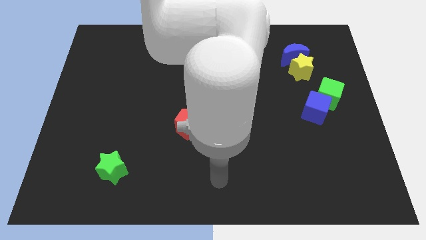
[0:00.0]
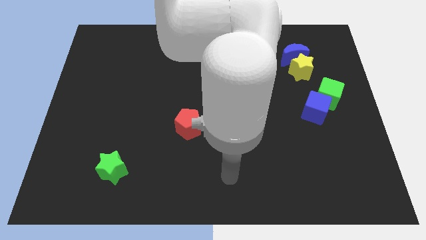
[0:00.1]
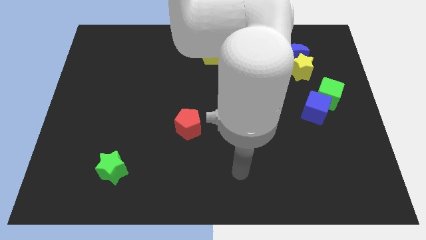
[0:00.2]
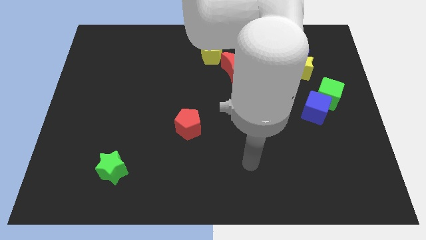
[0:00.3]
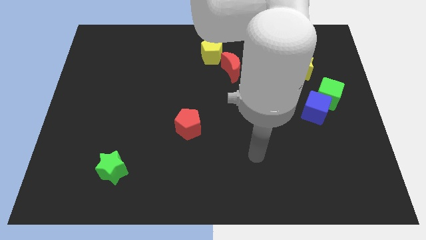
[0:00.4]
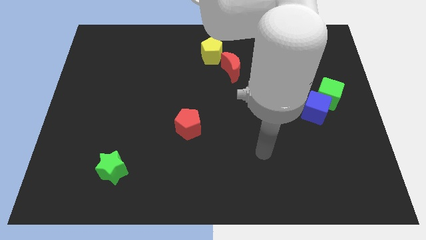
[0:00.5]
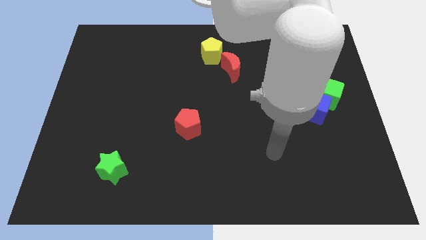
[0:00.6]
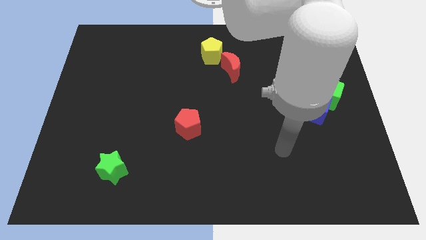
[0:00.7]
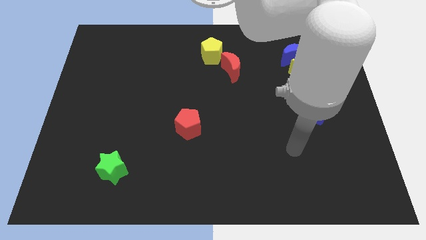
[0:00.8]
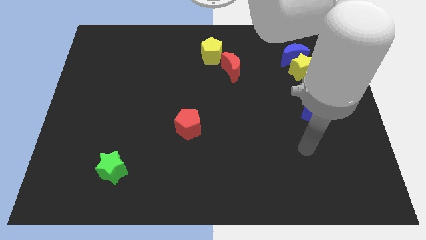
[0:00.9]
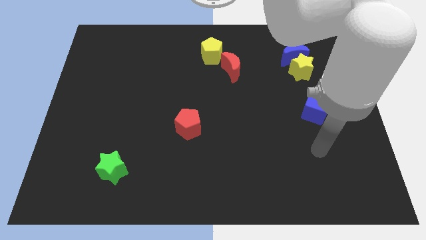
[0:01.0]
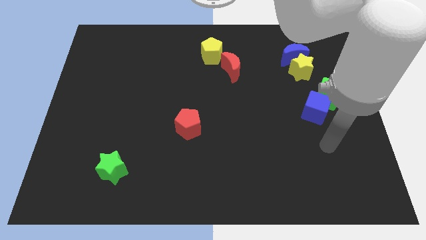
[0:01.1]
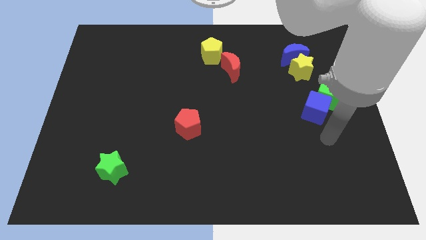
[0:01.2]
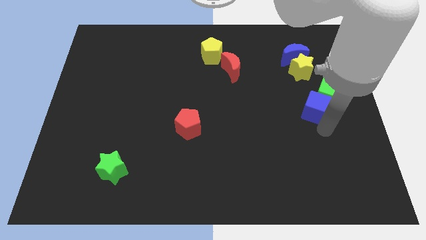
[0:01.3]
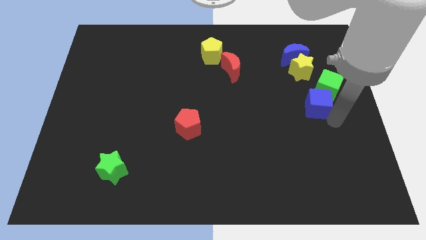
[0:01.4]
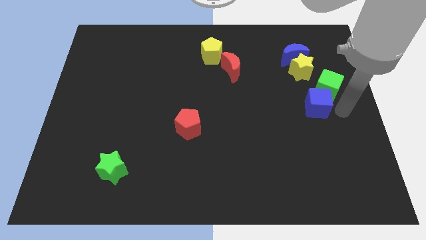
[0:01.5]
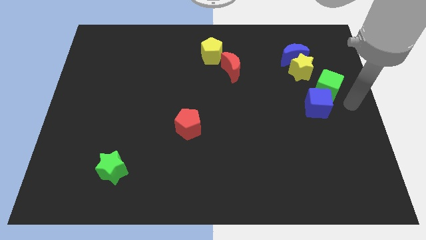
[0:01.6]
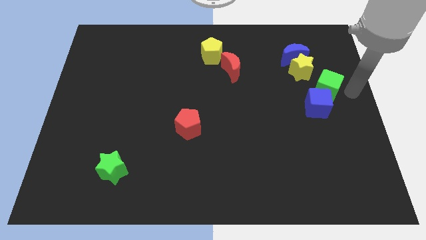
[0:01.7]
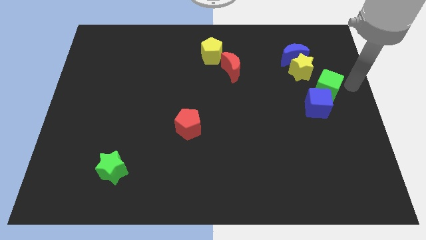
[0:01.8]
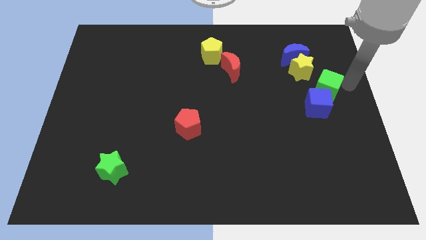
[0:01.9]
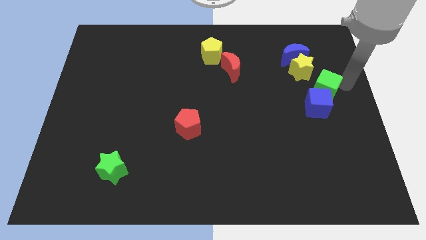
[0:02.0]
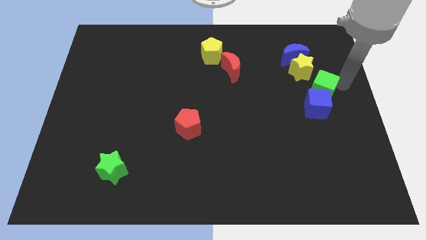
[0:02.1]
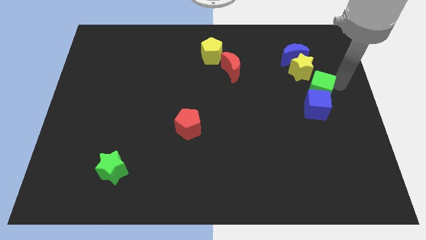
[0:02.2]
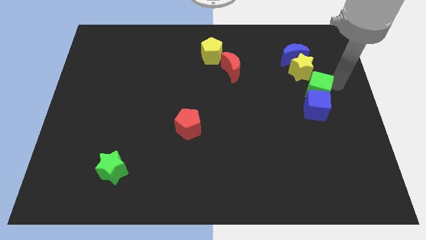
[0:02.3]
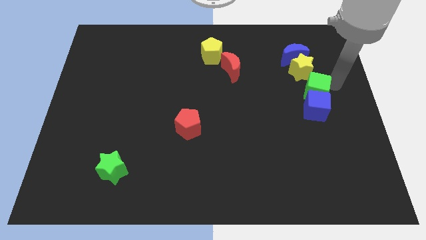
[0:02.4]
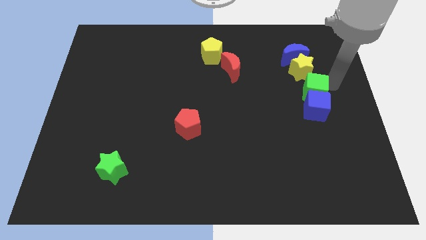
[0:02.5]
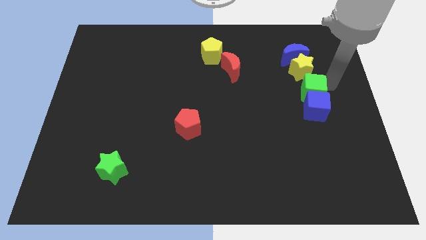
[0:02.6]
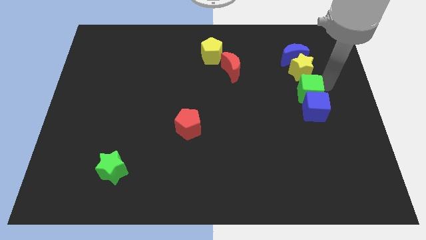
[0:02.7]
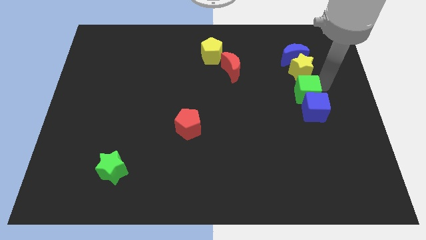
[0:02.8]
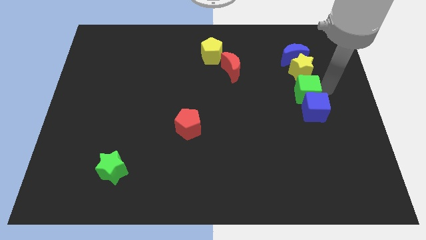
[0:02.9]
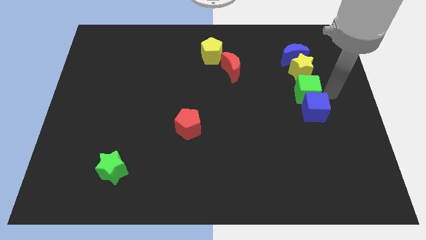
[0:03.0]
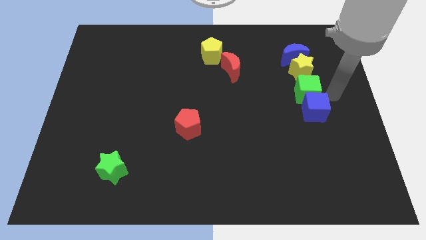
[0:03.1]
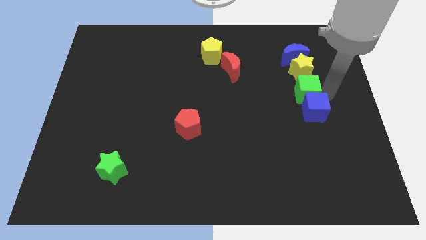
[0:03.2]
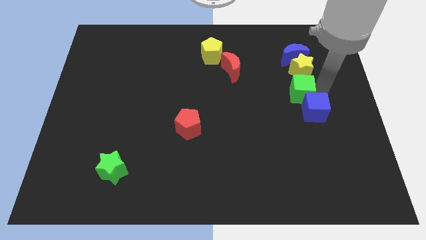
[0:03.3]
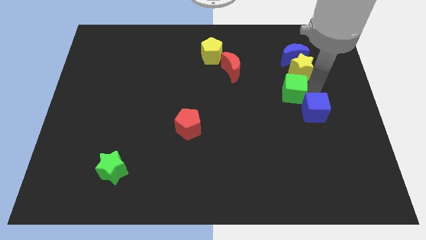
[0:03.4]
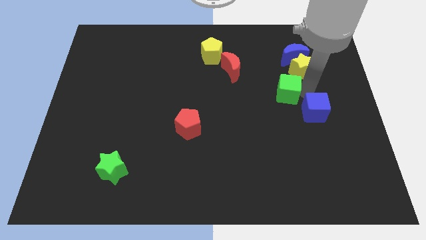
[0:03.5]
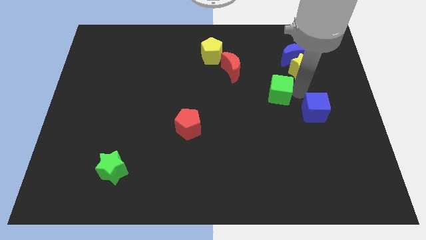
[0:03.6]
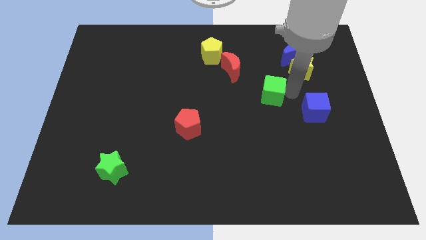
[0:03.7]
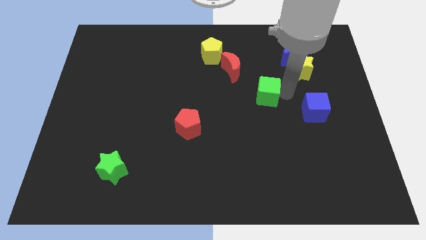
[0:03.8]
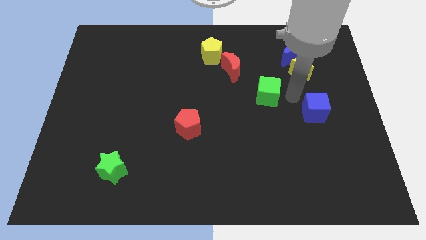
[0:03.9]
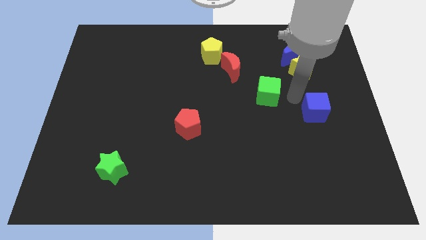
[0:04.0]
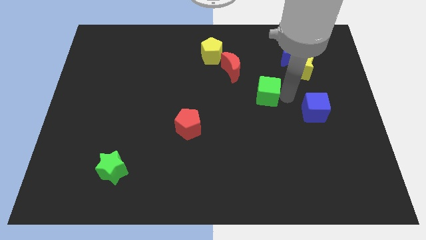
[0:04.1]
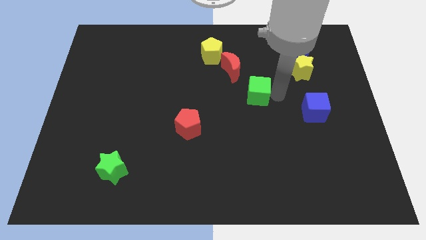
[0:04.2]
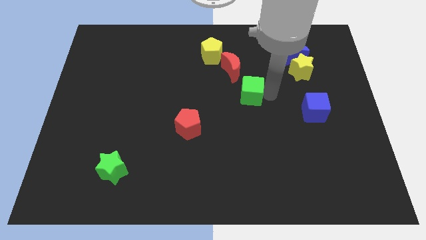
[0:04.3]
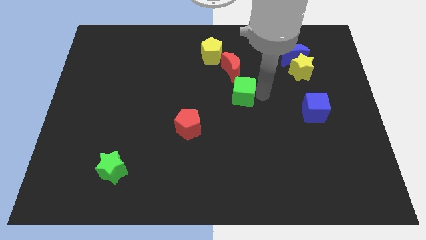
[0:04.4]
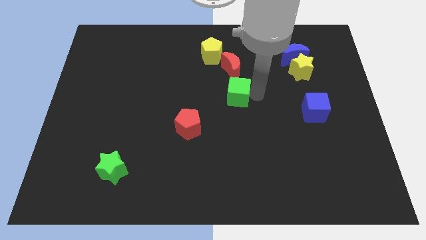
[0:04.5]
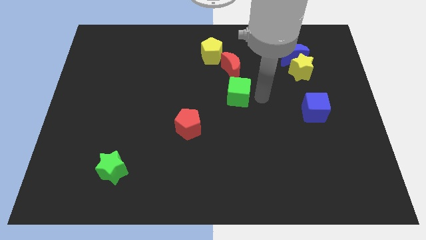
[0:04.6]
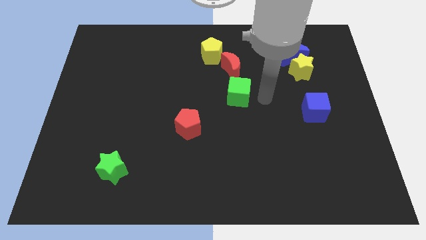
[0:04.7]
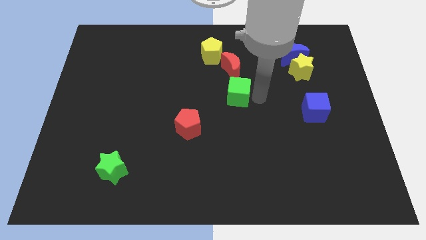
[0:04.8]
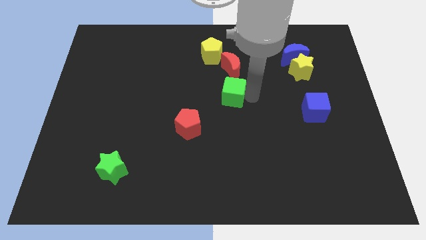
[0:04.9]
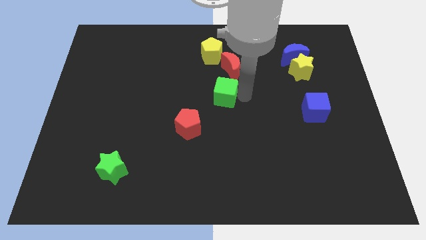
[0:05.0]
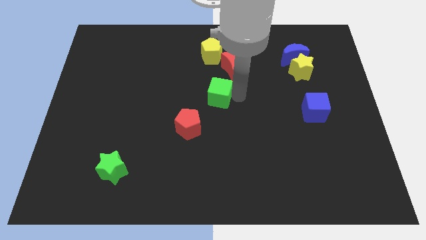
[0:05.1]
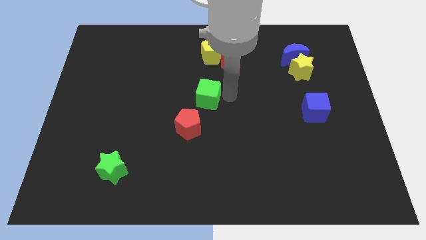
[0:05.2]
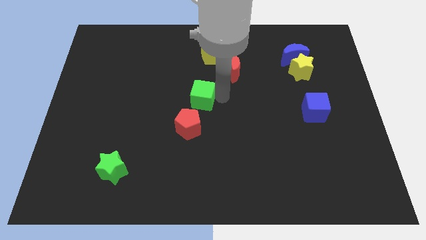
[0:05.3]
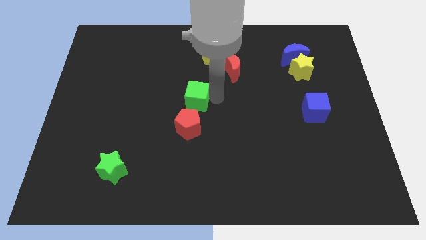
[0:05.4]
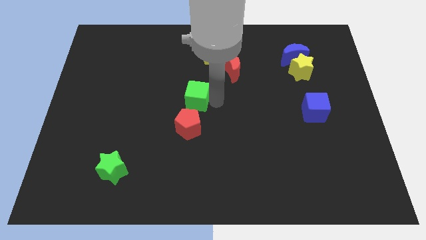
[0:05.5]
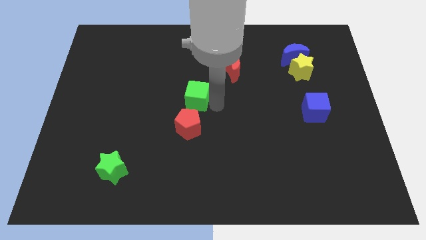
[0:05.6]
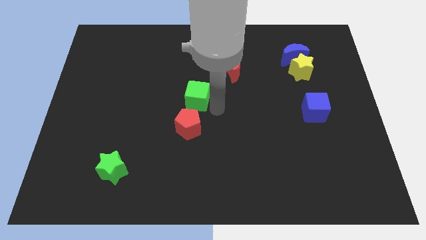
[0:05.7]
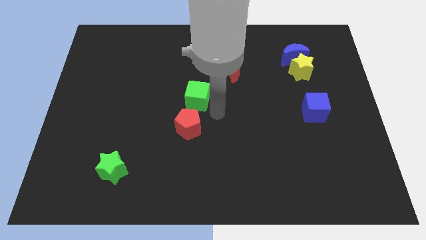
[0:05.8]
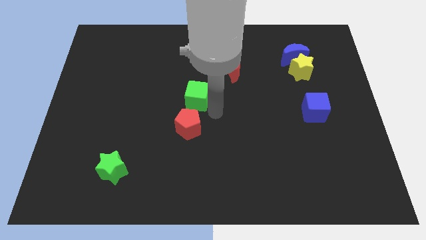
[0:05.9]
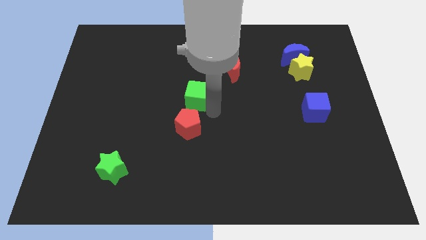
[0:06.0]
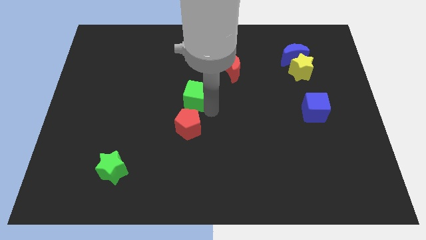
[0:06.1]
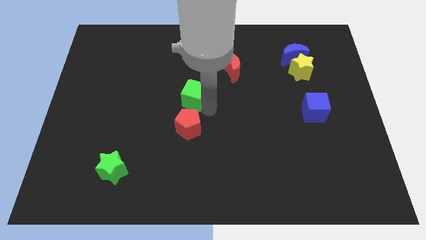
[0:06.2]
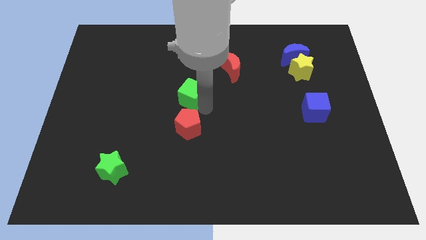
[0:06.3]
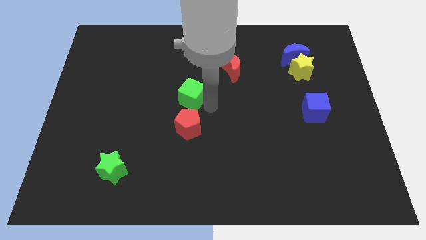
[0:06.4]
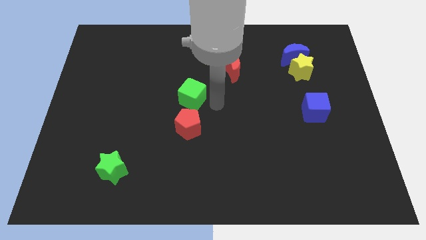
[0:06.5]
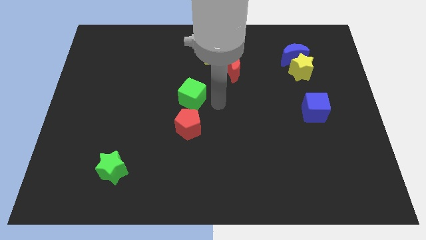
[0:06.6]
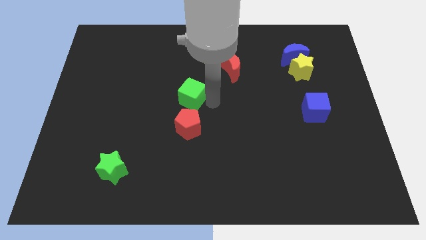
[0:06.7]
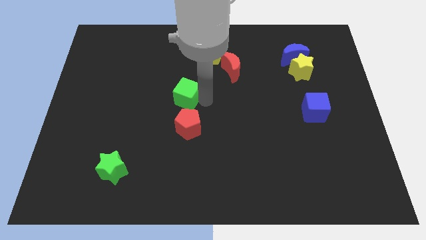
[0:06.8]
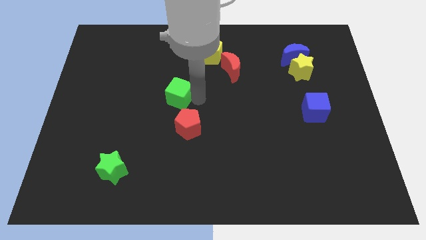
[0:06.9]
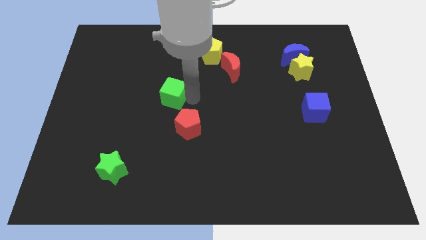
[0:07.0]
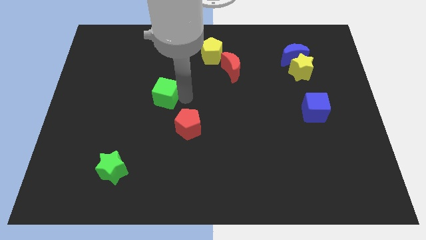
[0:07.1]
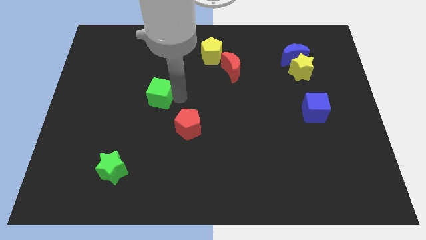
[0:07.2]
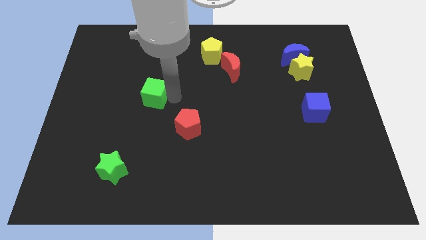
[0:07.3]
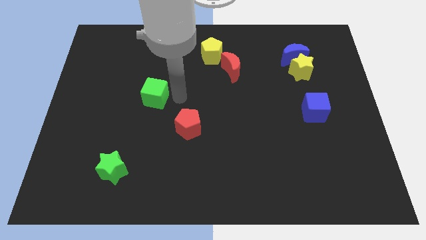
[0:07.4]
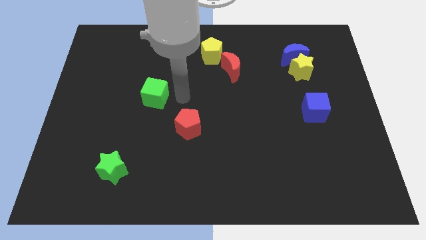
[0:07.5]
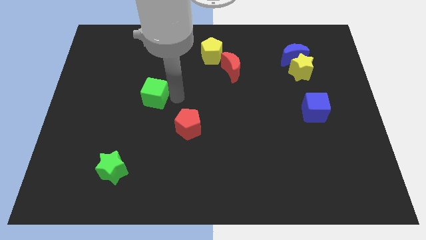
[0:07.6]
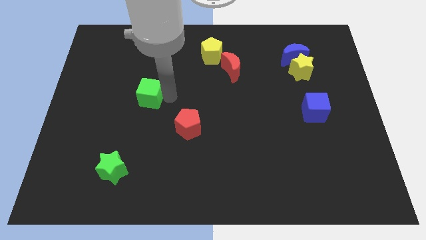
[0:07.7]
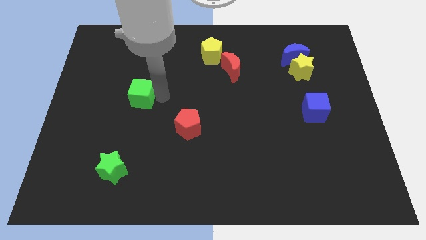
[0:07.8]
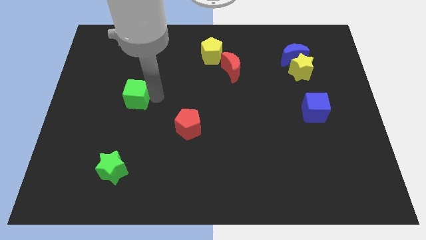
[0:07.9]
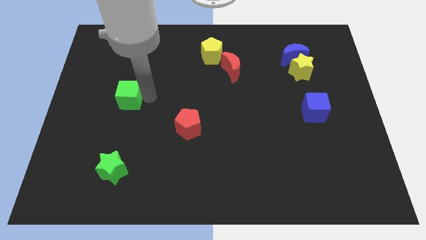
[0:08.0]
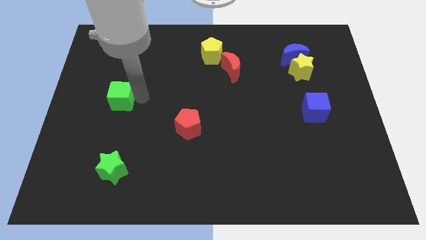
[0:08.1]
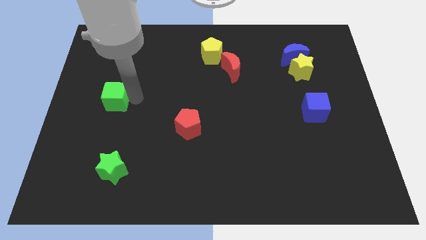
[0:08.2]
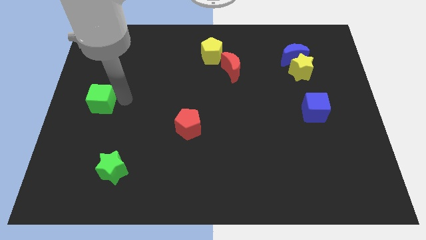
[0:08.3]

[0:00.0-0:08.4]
move the green cube to the left side of the board
